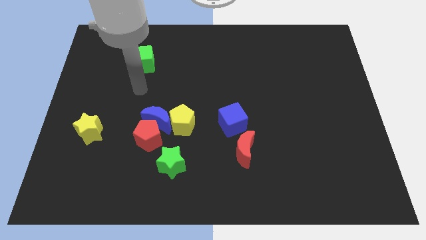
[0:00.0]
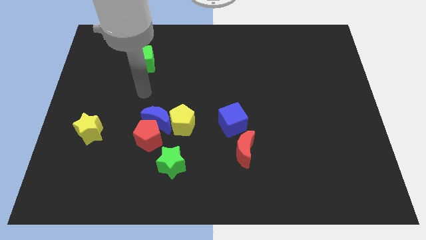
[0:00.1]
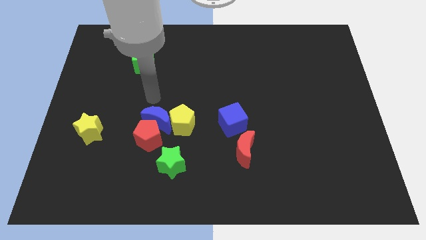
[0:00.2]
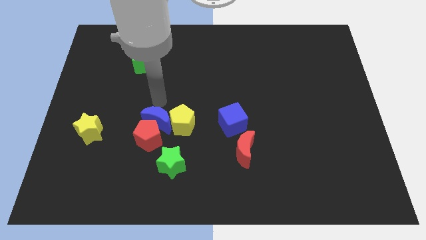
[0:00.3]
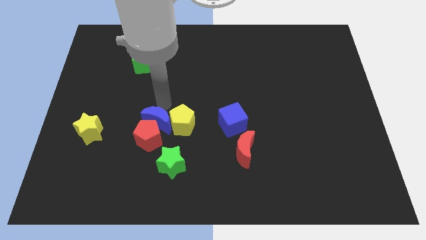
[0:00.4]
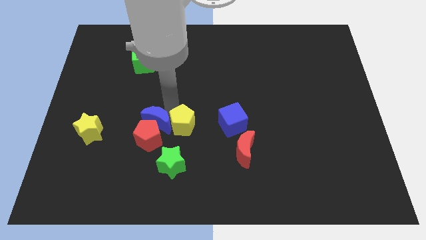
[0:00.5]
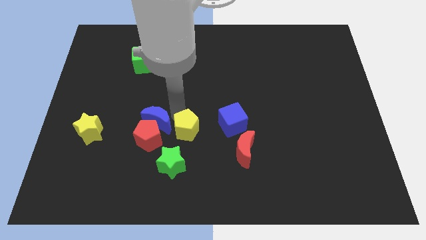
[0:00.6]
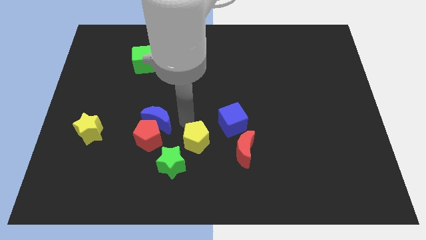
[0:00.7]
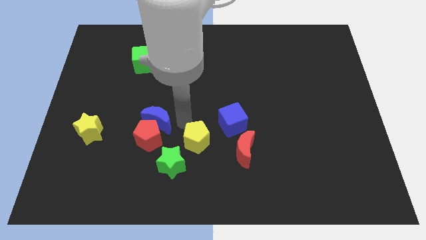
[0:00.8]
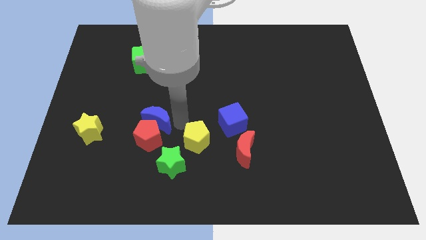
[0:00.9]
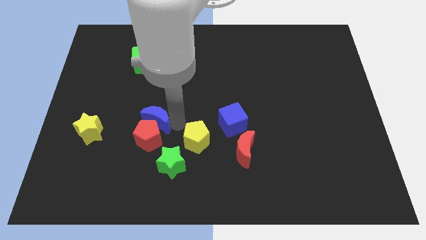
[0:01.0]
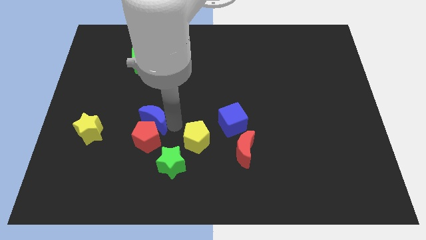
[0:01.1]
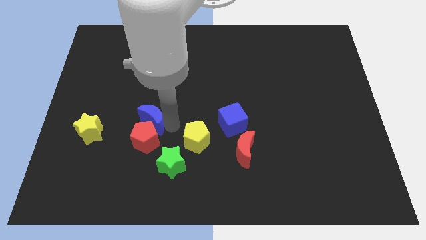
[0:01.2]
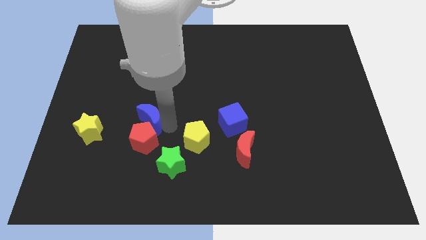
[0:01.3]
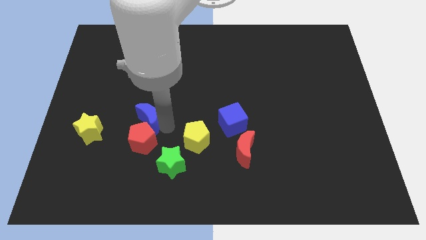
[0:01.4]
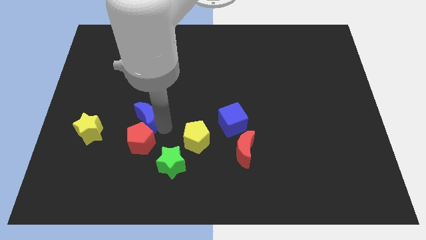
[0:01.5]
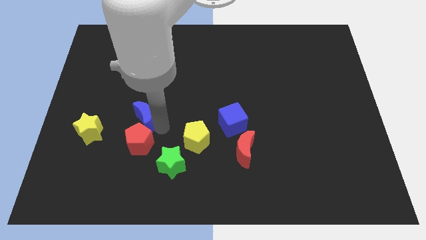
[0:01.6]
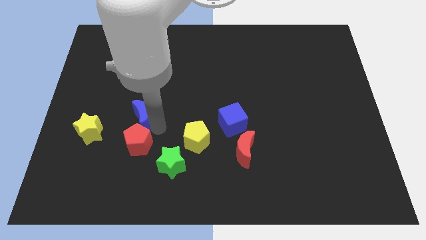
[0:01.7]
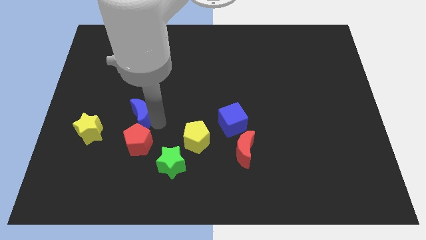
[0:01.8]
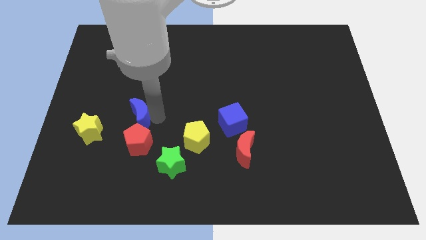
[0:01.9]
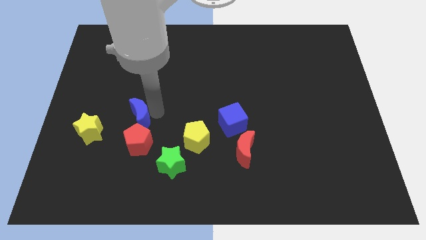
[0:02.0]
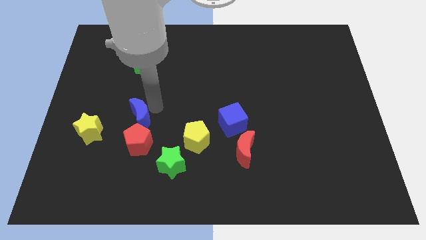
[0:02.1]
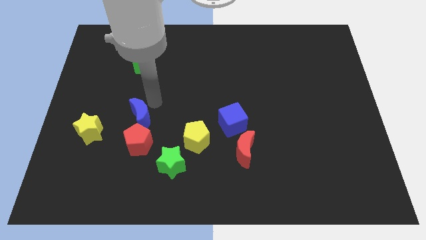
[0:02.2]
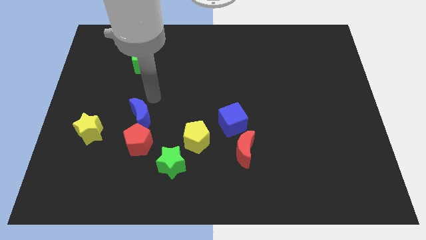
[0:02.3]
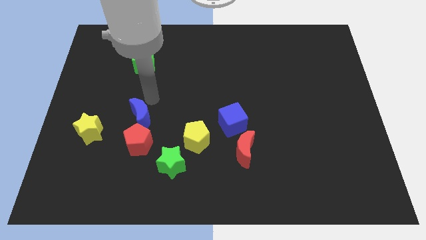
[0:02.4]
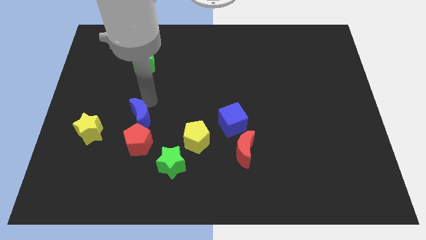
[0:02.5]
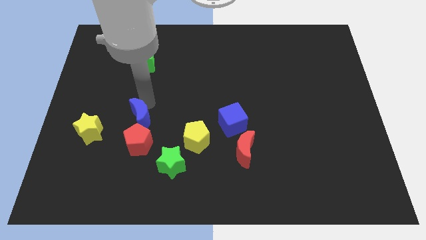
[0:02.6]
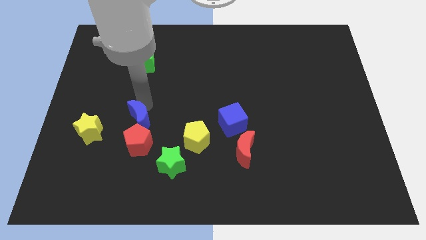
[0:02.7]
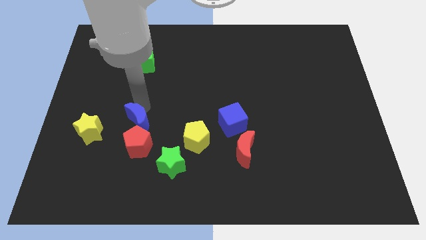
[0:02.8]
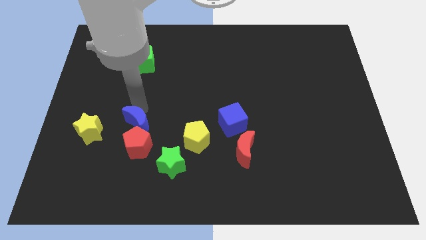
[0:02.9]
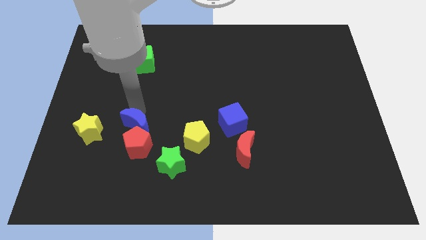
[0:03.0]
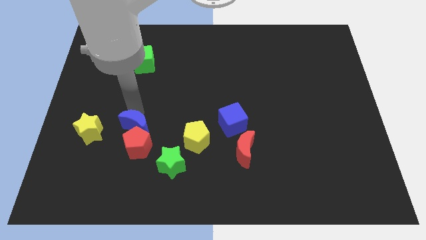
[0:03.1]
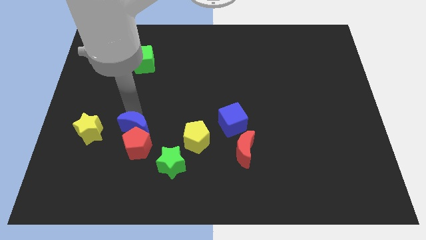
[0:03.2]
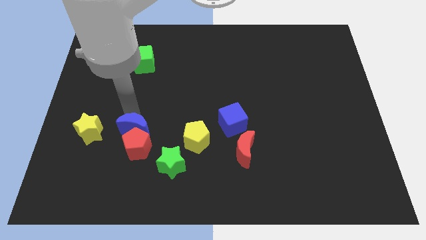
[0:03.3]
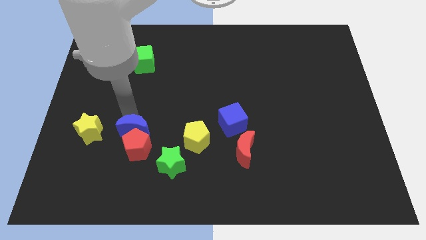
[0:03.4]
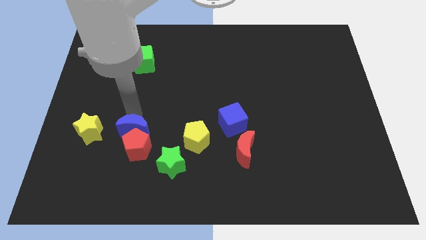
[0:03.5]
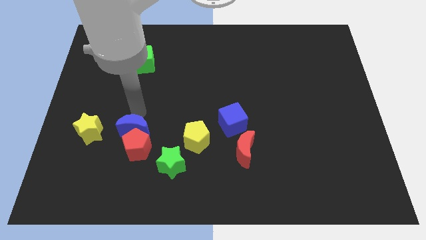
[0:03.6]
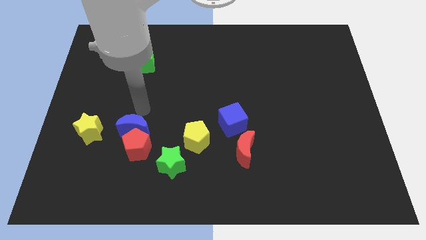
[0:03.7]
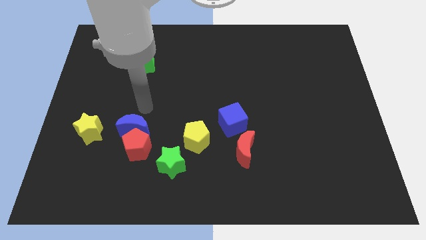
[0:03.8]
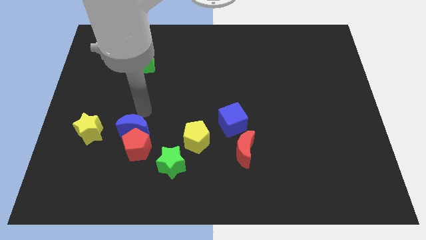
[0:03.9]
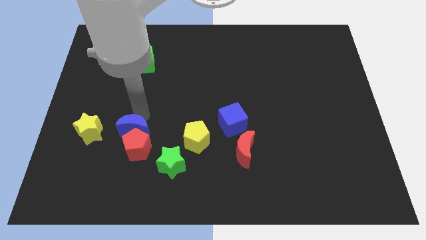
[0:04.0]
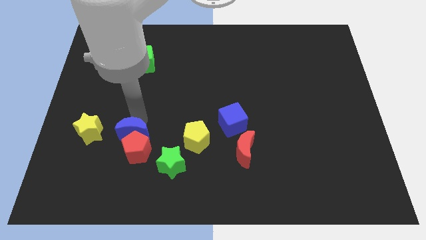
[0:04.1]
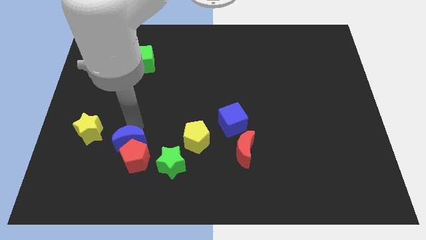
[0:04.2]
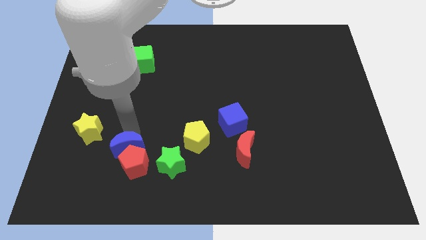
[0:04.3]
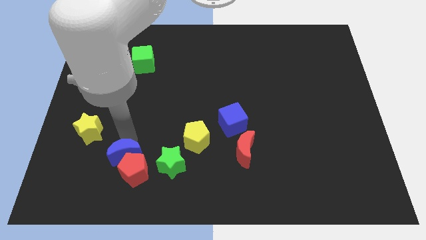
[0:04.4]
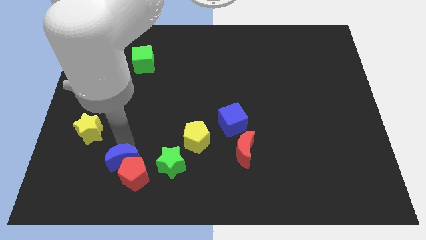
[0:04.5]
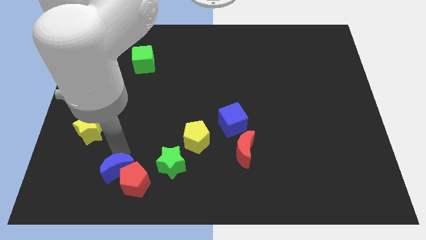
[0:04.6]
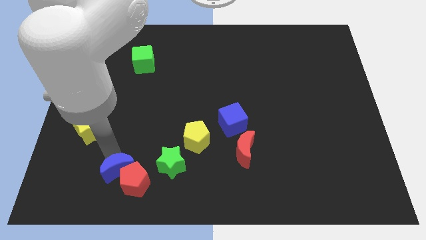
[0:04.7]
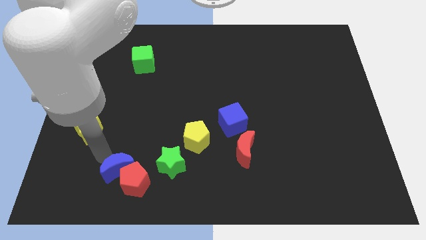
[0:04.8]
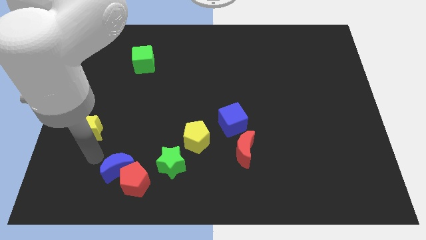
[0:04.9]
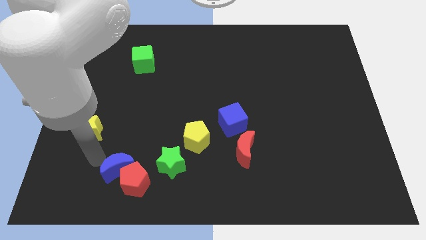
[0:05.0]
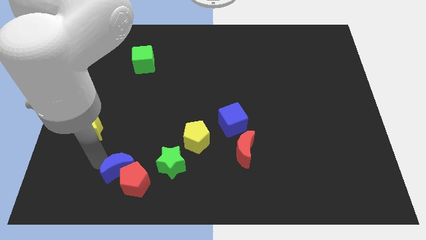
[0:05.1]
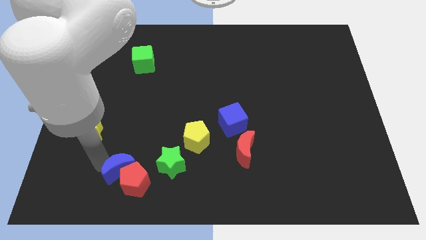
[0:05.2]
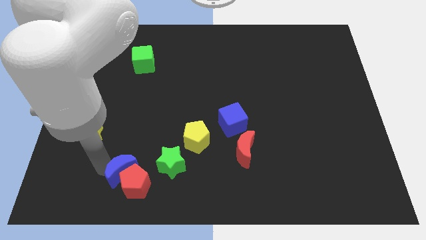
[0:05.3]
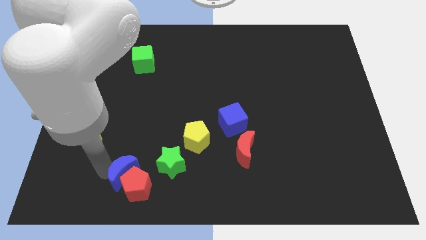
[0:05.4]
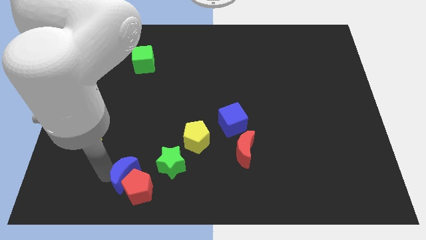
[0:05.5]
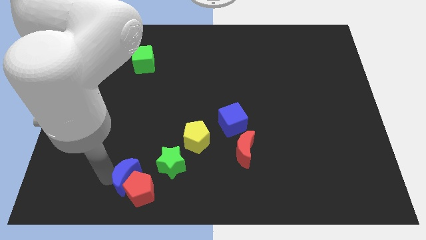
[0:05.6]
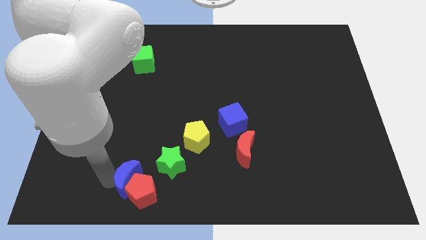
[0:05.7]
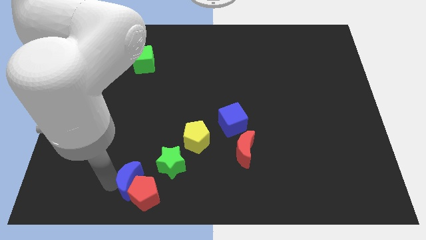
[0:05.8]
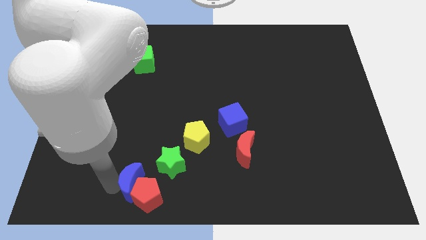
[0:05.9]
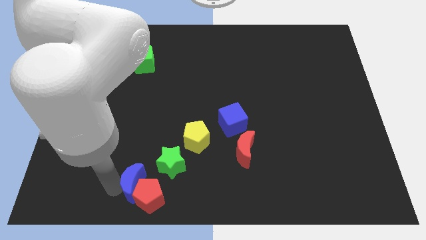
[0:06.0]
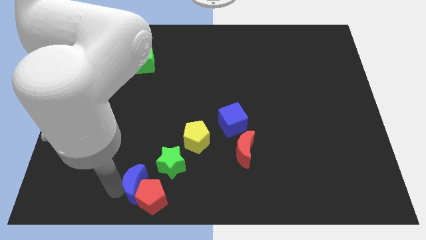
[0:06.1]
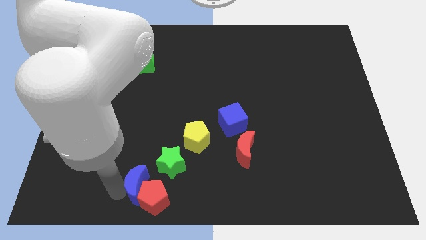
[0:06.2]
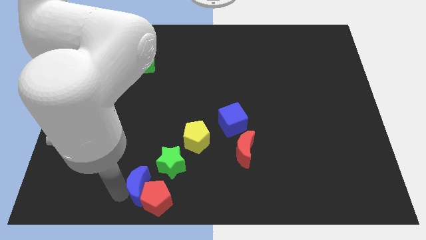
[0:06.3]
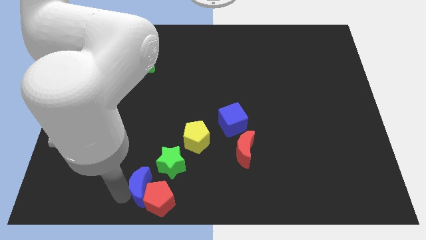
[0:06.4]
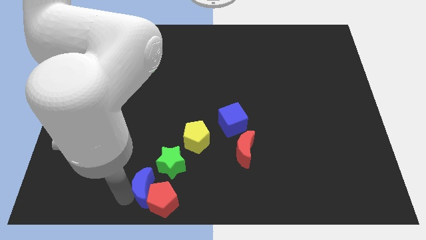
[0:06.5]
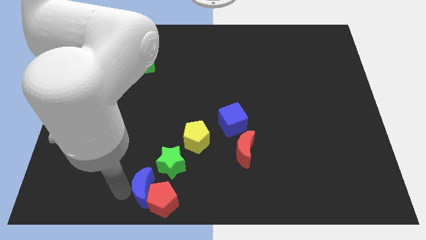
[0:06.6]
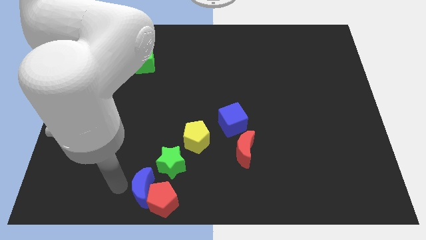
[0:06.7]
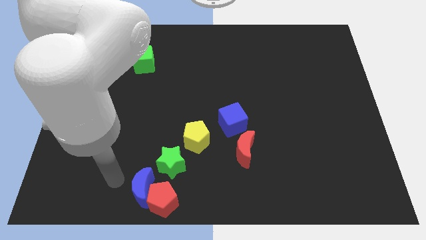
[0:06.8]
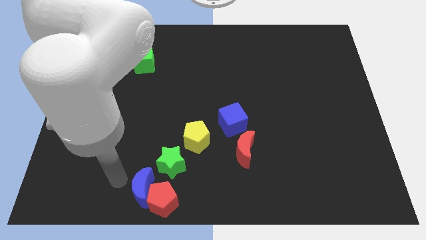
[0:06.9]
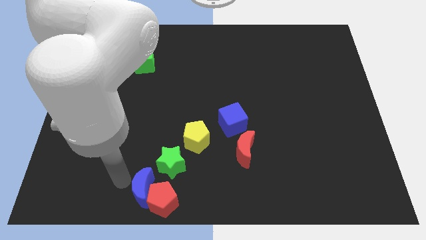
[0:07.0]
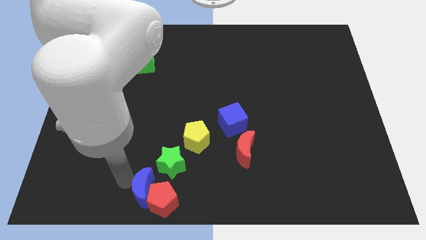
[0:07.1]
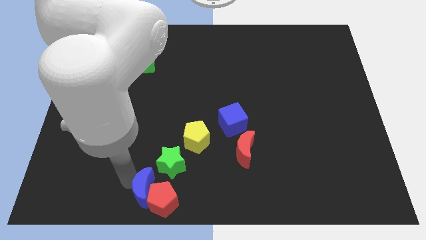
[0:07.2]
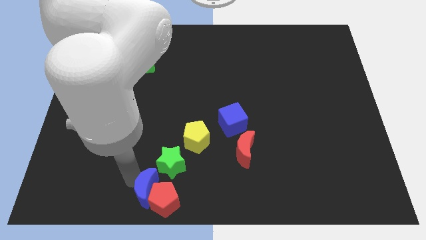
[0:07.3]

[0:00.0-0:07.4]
slide the blue moon to the bottom side
